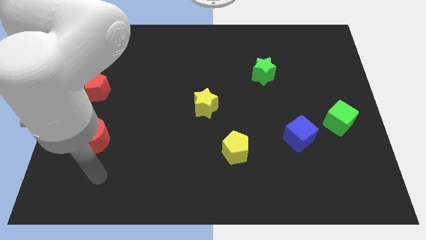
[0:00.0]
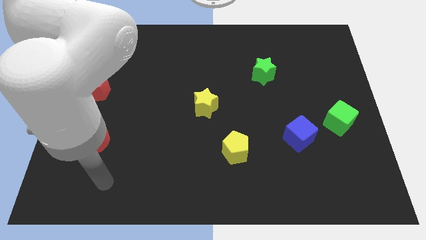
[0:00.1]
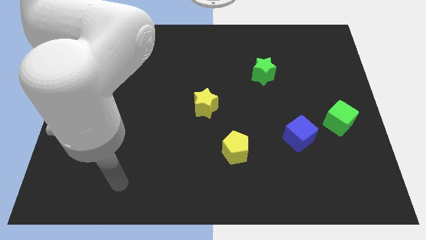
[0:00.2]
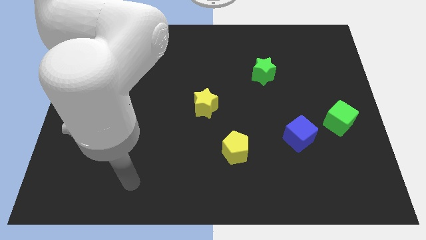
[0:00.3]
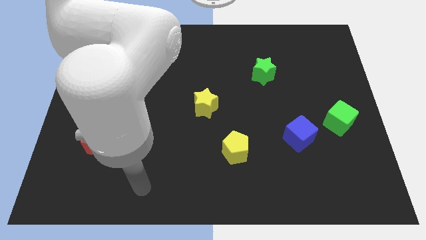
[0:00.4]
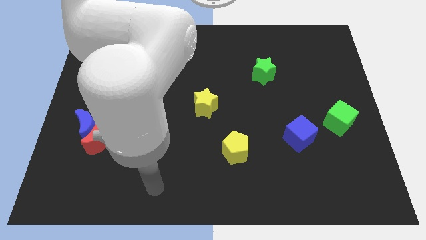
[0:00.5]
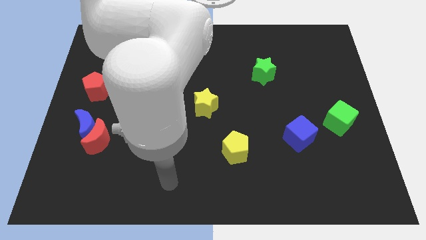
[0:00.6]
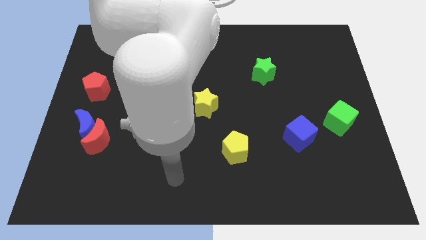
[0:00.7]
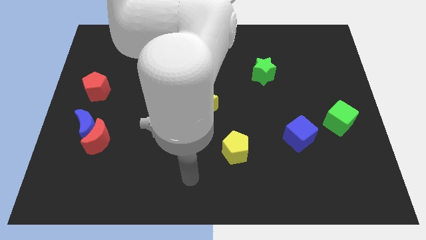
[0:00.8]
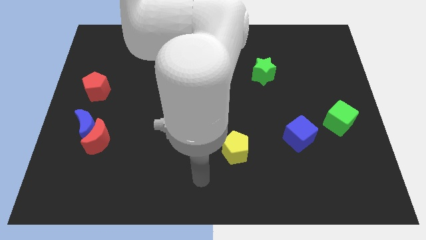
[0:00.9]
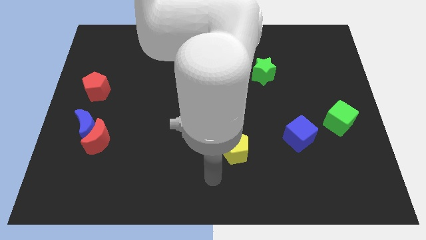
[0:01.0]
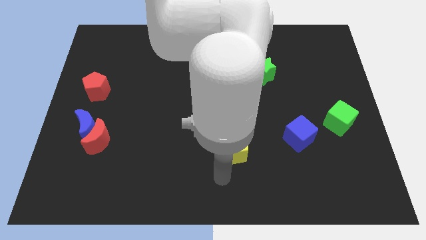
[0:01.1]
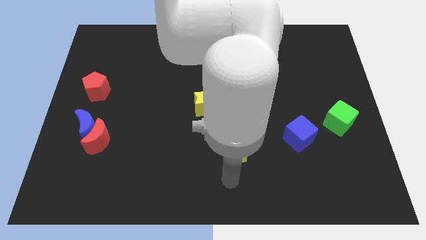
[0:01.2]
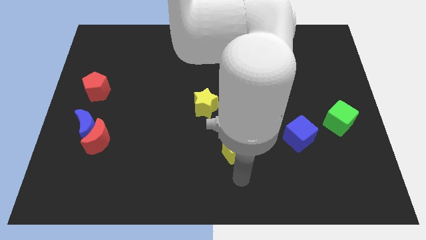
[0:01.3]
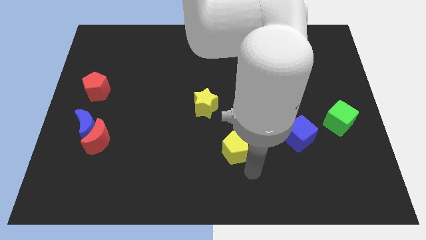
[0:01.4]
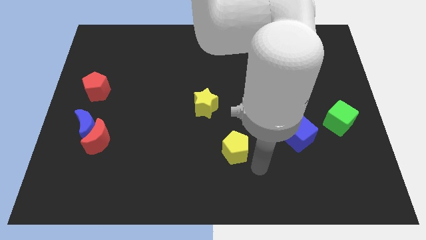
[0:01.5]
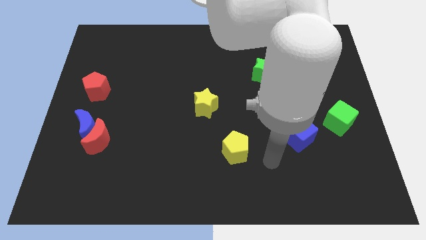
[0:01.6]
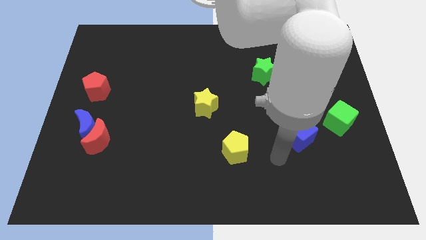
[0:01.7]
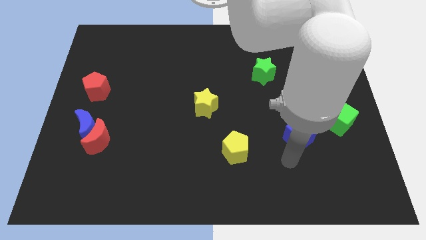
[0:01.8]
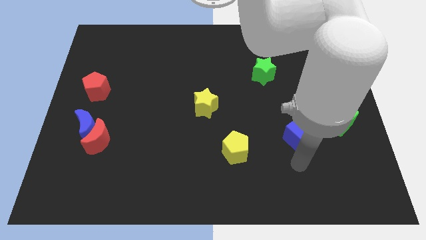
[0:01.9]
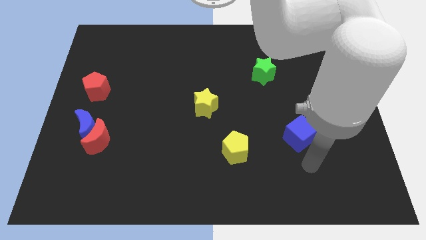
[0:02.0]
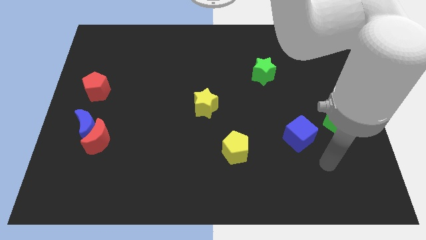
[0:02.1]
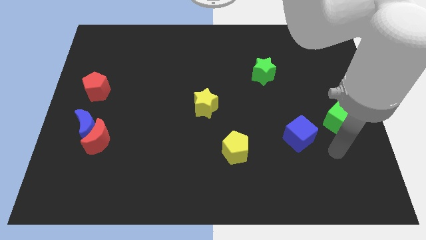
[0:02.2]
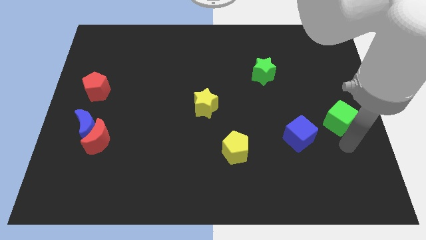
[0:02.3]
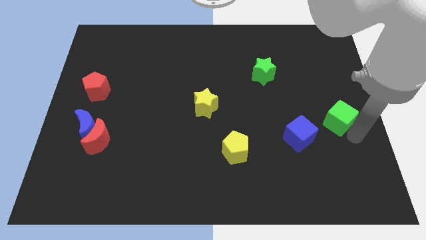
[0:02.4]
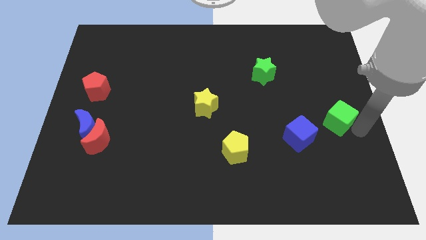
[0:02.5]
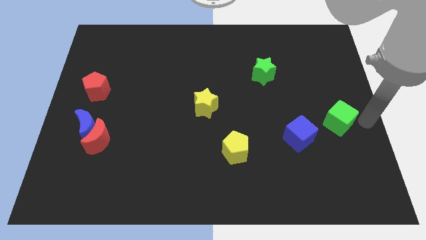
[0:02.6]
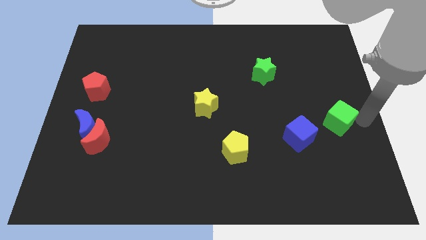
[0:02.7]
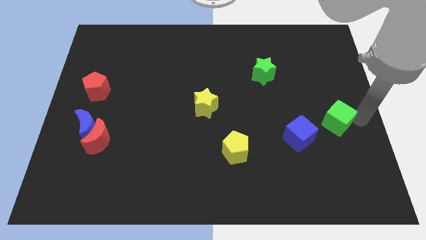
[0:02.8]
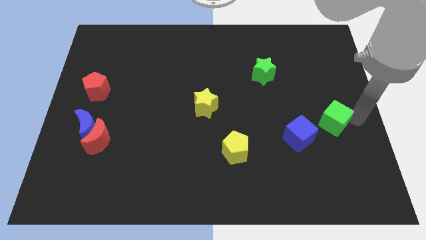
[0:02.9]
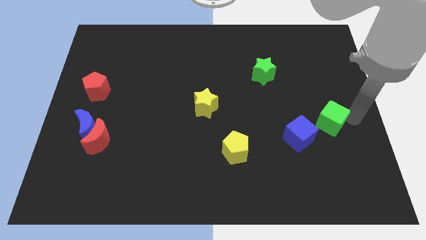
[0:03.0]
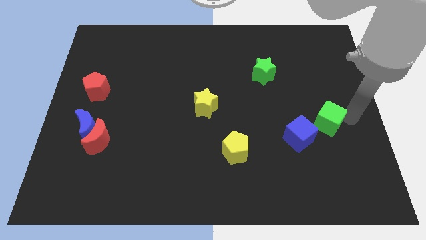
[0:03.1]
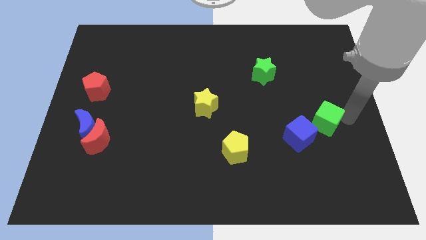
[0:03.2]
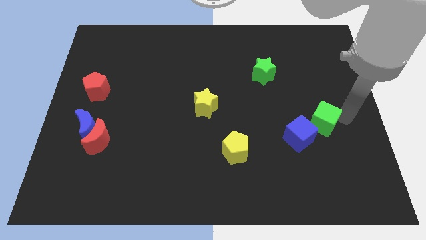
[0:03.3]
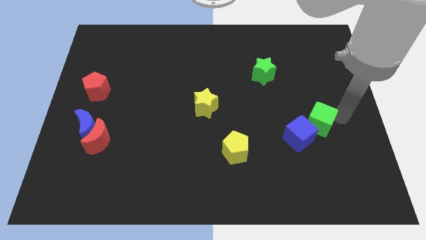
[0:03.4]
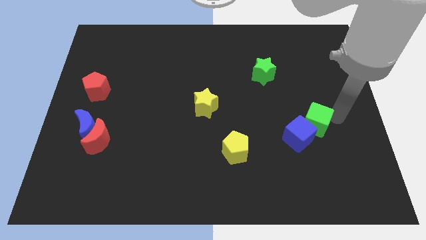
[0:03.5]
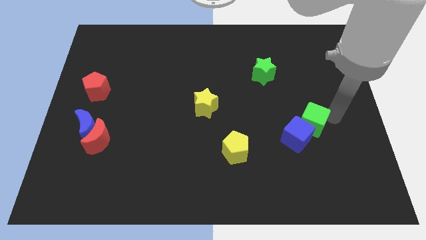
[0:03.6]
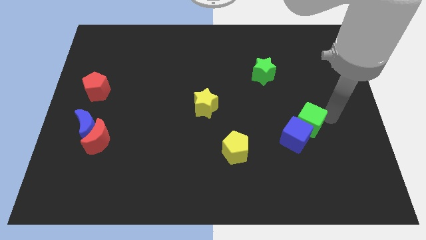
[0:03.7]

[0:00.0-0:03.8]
slide the green cube to the left a bit

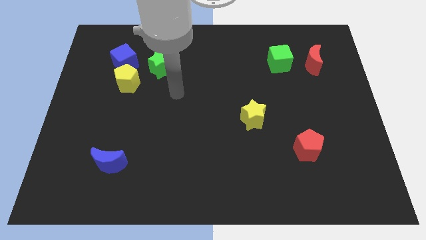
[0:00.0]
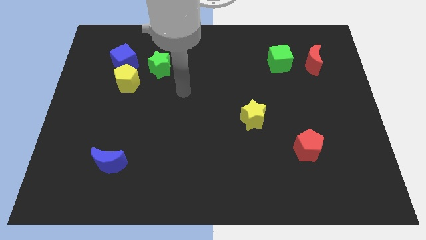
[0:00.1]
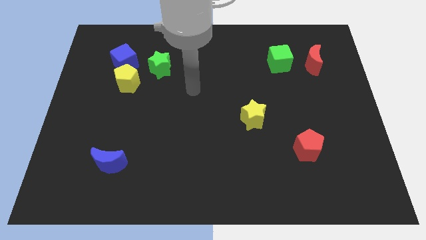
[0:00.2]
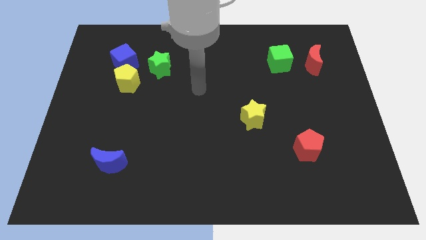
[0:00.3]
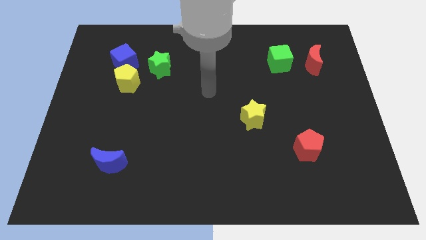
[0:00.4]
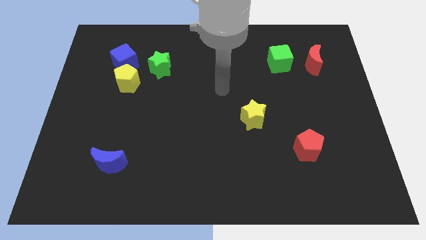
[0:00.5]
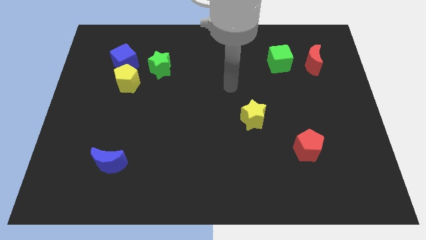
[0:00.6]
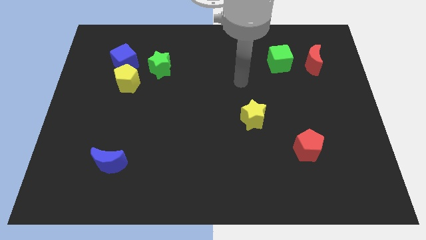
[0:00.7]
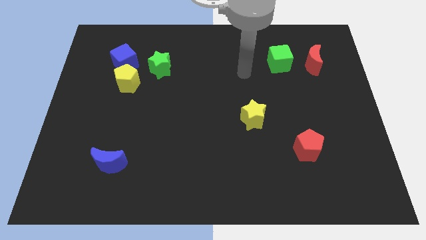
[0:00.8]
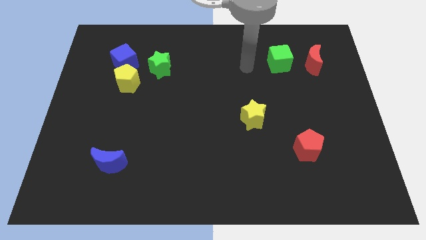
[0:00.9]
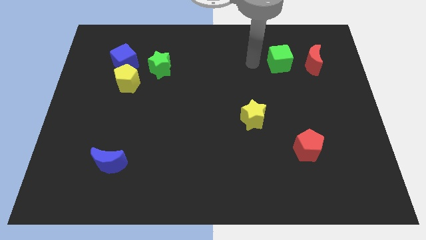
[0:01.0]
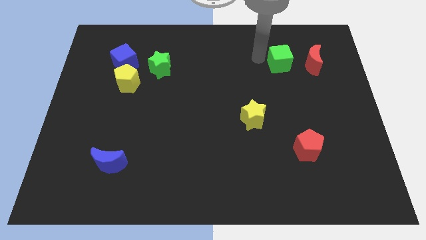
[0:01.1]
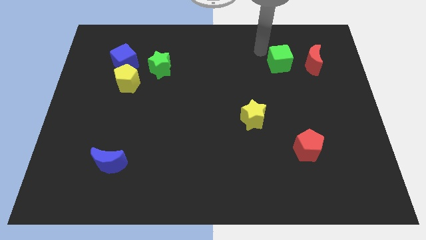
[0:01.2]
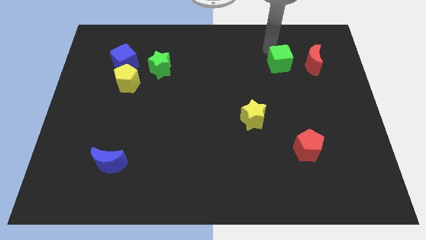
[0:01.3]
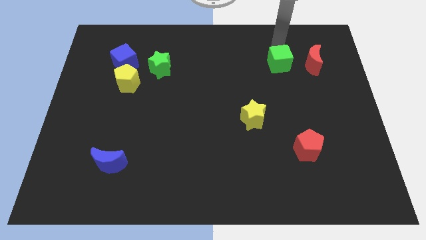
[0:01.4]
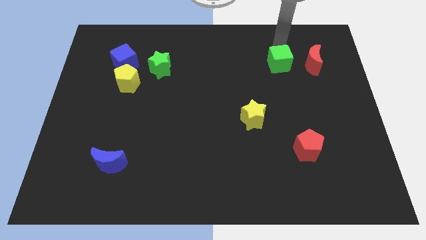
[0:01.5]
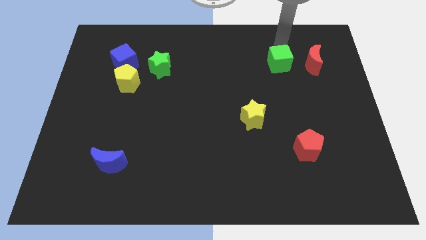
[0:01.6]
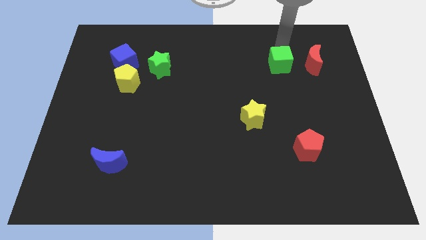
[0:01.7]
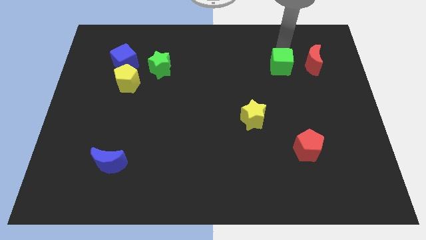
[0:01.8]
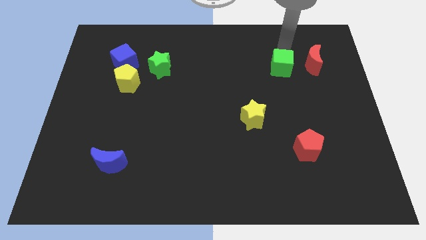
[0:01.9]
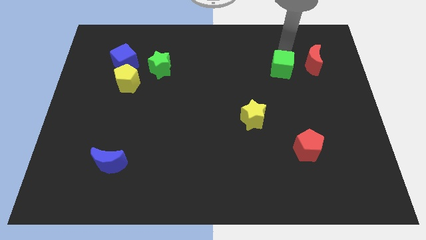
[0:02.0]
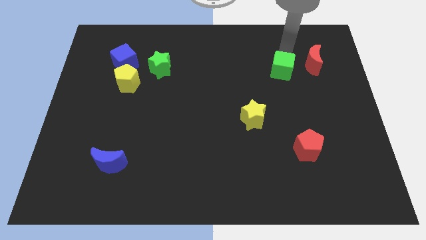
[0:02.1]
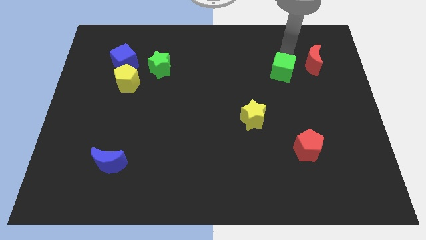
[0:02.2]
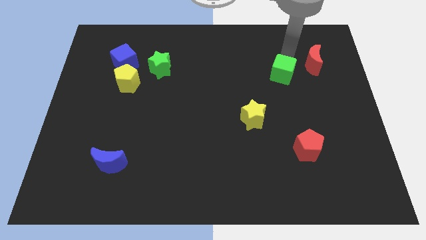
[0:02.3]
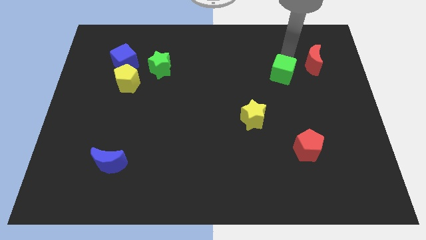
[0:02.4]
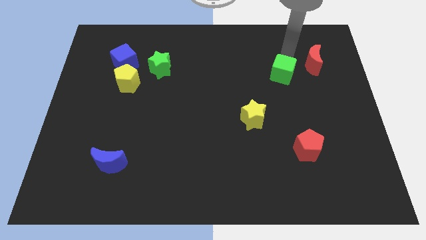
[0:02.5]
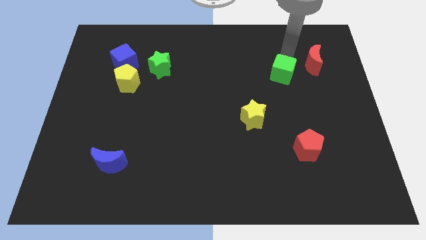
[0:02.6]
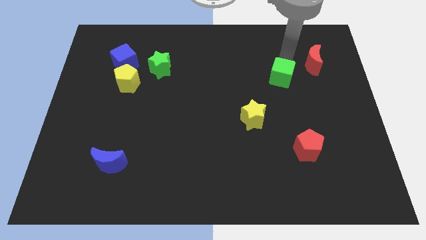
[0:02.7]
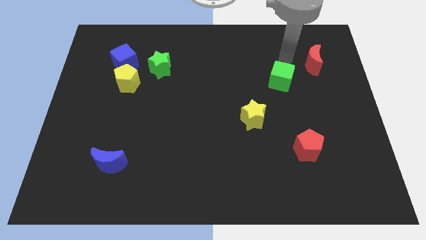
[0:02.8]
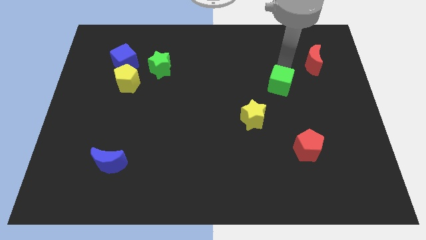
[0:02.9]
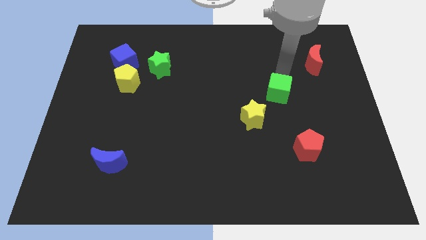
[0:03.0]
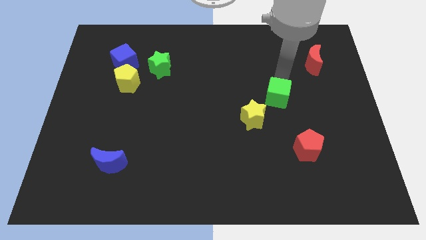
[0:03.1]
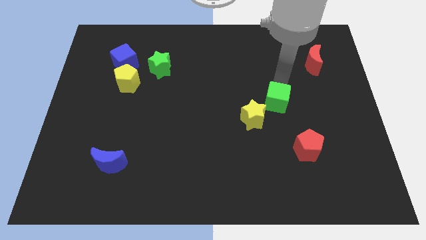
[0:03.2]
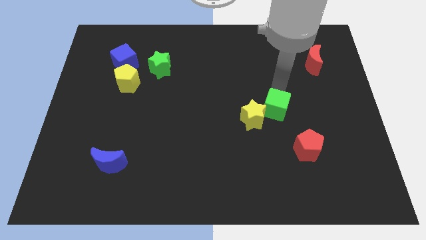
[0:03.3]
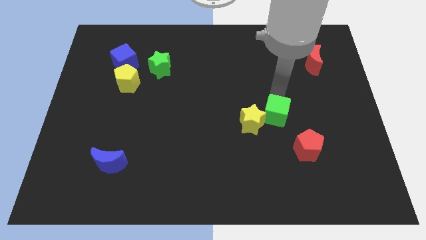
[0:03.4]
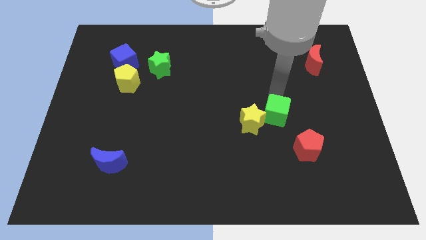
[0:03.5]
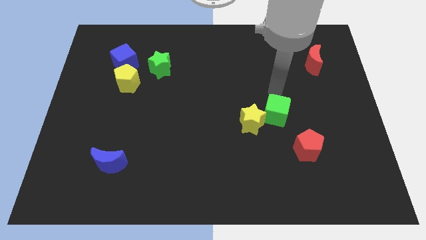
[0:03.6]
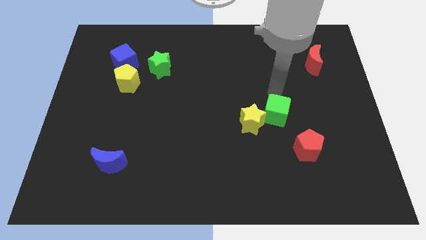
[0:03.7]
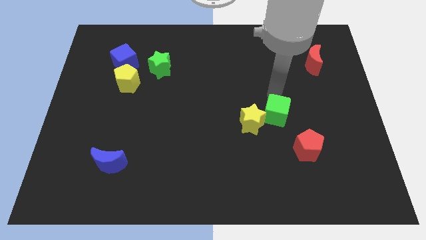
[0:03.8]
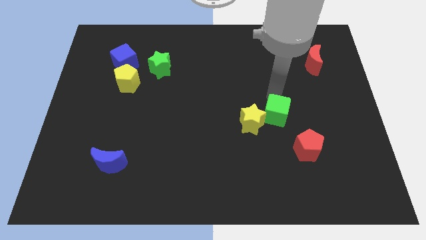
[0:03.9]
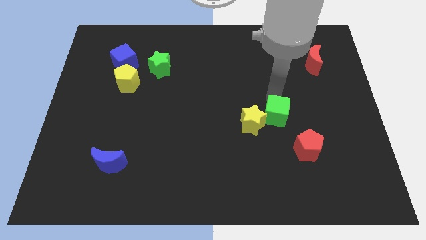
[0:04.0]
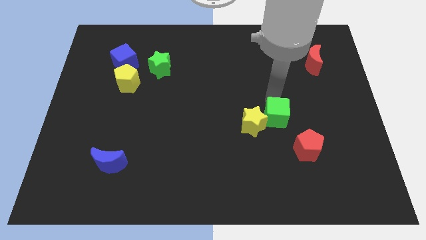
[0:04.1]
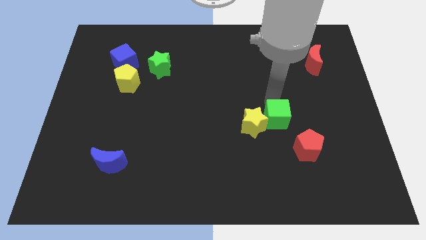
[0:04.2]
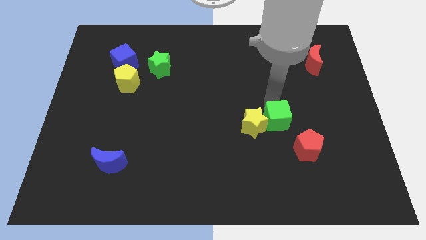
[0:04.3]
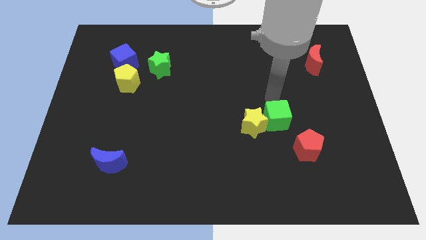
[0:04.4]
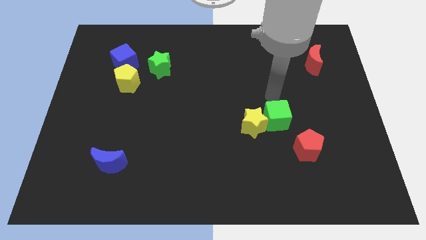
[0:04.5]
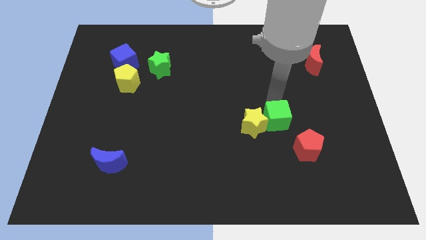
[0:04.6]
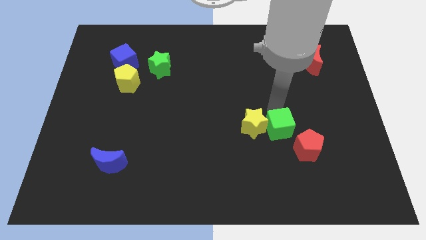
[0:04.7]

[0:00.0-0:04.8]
move the green cube downwards
